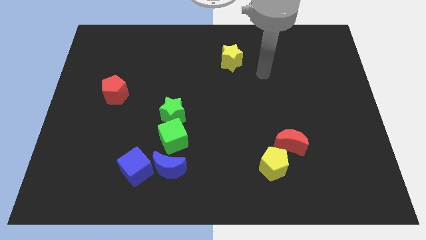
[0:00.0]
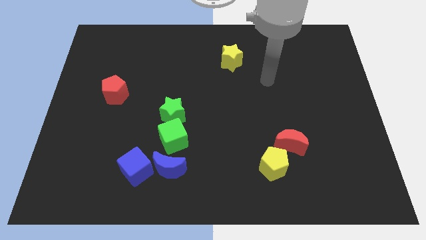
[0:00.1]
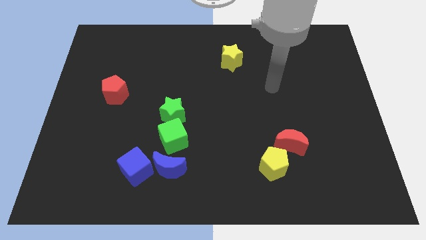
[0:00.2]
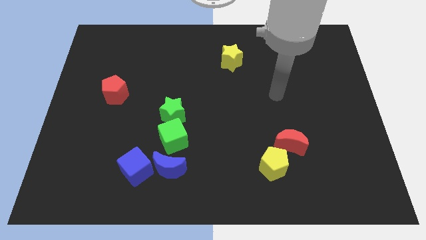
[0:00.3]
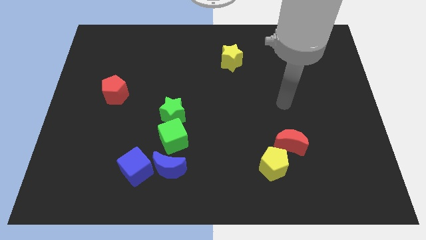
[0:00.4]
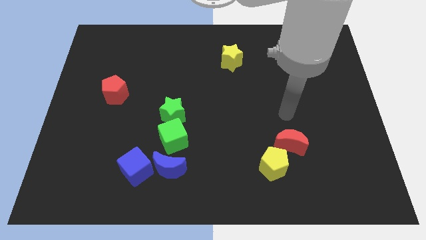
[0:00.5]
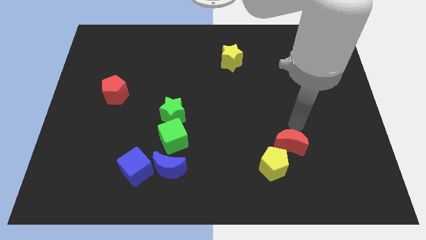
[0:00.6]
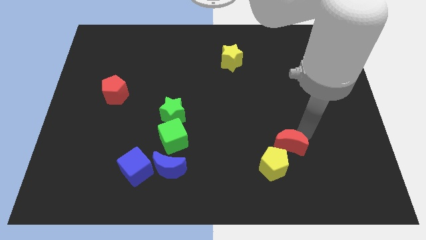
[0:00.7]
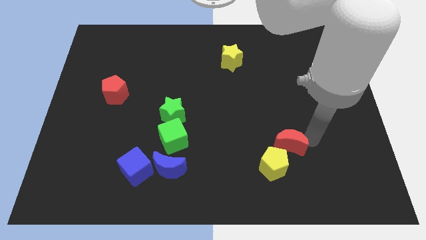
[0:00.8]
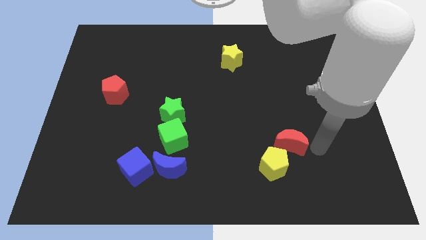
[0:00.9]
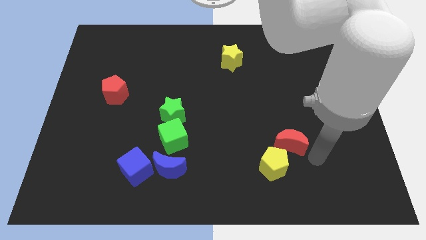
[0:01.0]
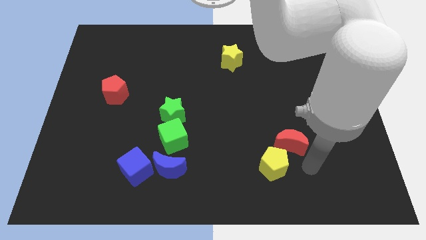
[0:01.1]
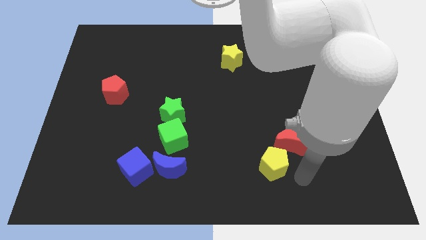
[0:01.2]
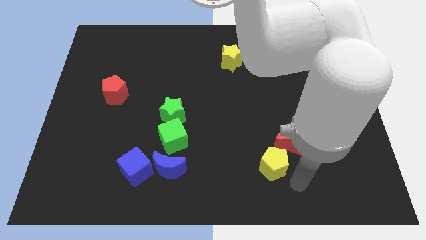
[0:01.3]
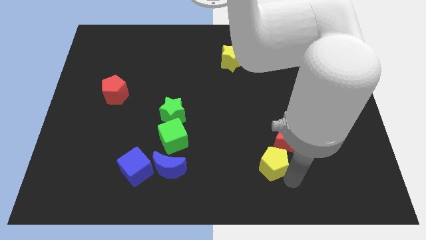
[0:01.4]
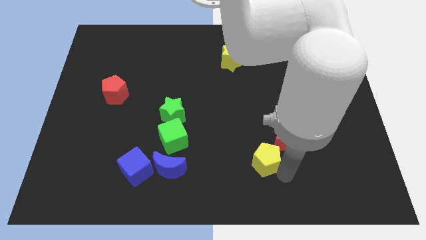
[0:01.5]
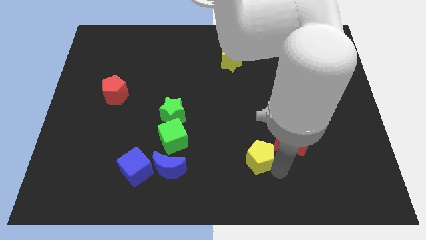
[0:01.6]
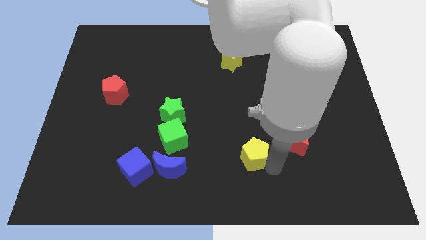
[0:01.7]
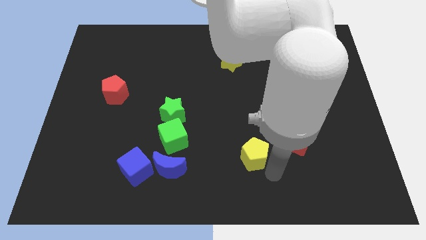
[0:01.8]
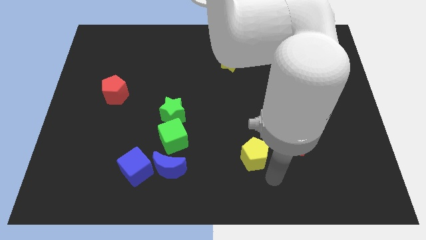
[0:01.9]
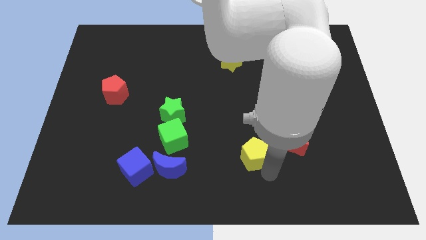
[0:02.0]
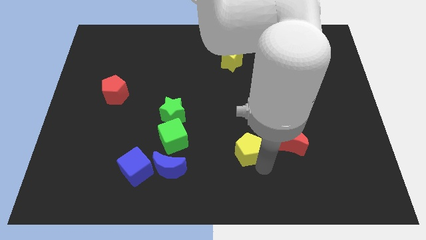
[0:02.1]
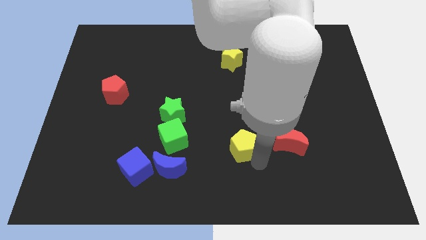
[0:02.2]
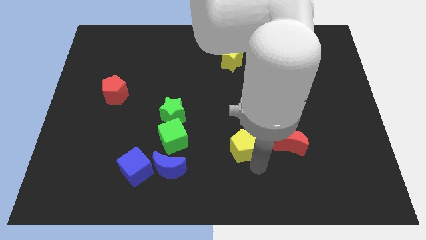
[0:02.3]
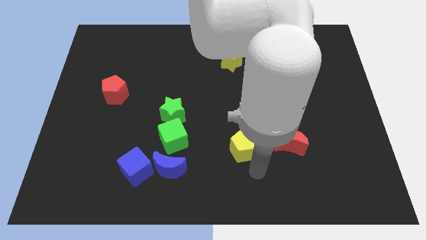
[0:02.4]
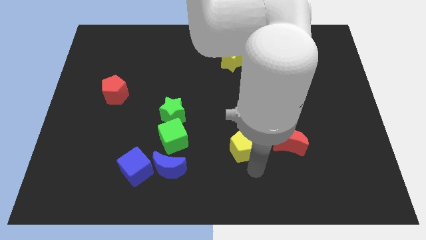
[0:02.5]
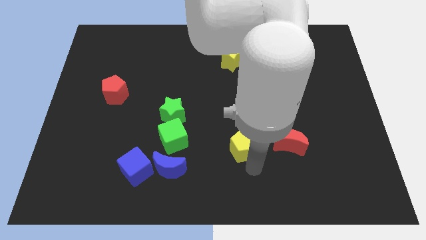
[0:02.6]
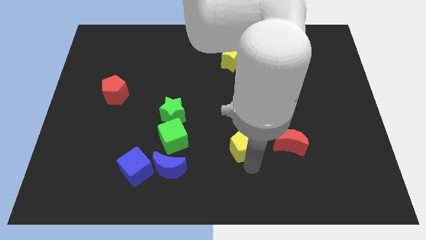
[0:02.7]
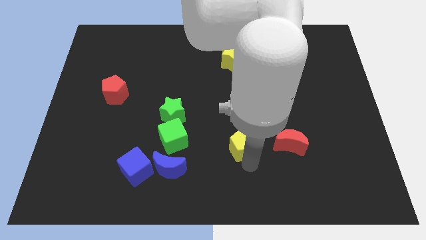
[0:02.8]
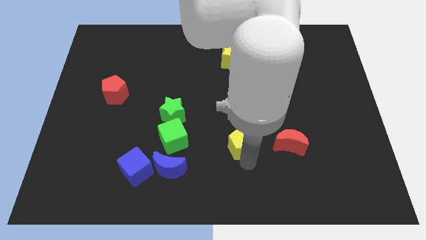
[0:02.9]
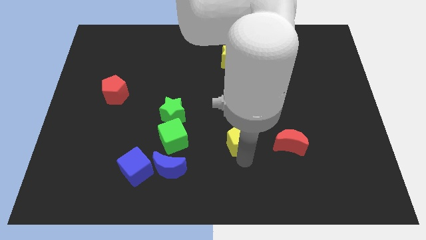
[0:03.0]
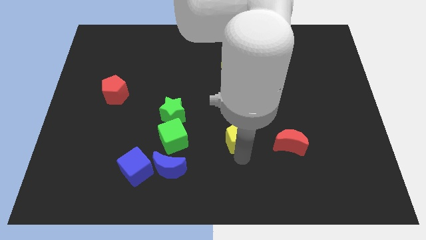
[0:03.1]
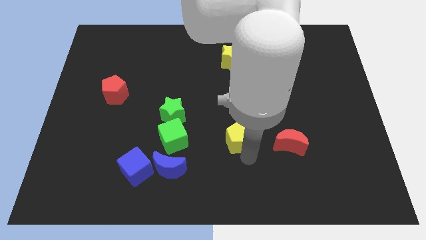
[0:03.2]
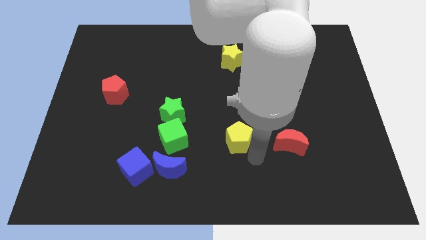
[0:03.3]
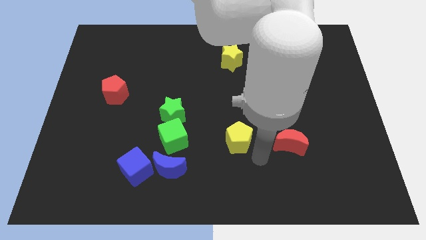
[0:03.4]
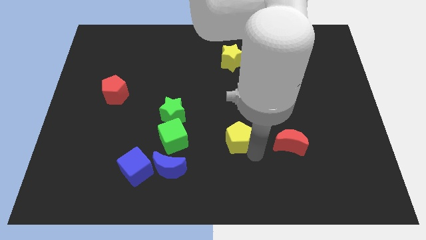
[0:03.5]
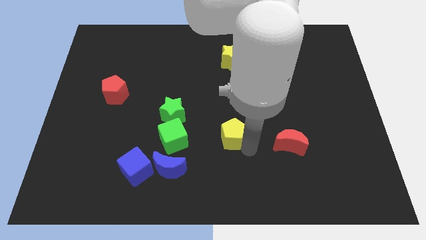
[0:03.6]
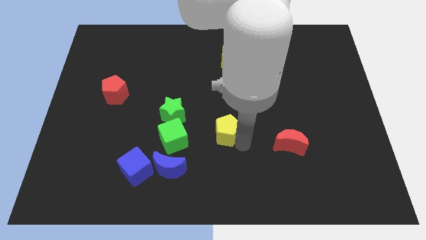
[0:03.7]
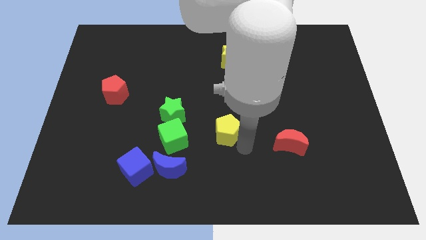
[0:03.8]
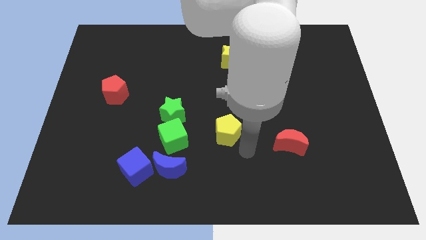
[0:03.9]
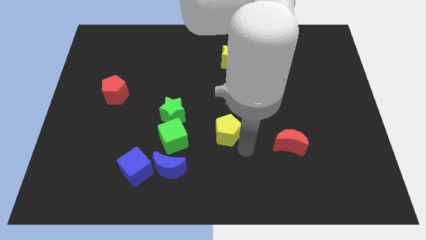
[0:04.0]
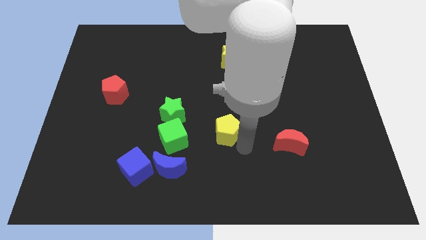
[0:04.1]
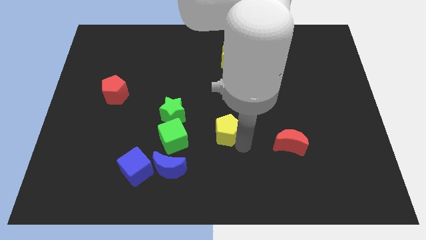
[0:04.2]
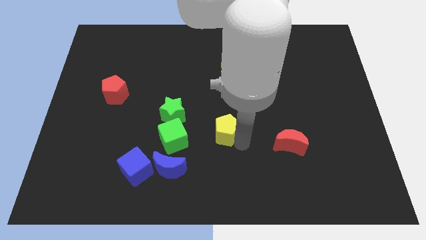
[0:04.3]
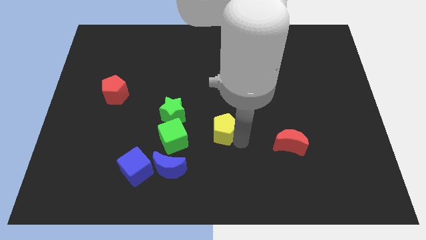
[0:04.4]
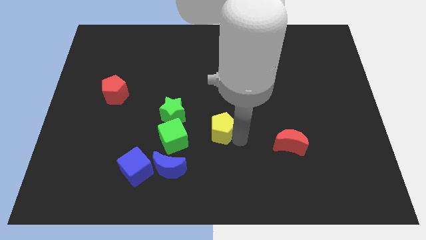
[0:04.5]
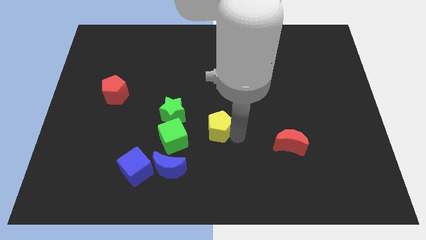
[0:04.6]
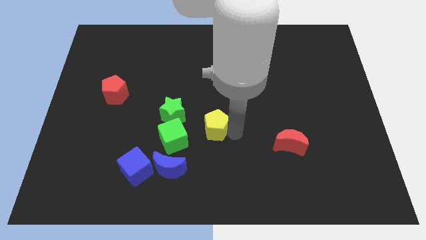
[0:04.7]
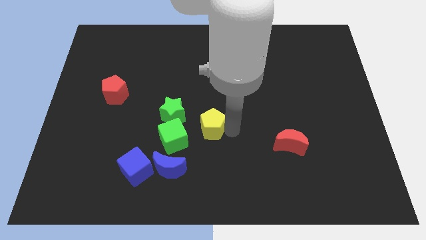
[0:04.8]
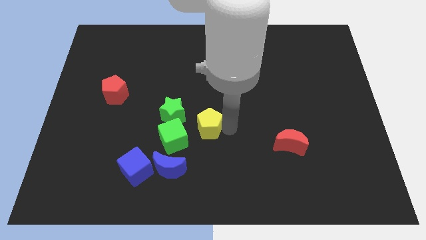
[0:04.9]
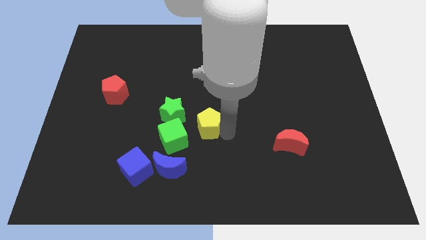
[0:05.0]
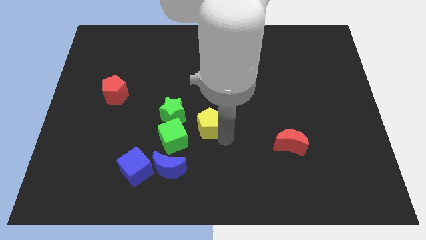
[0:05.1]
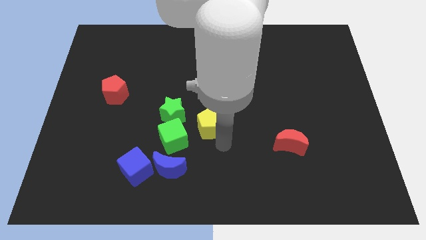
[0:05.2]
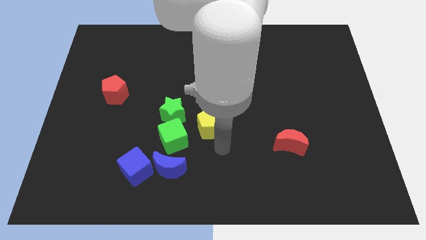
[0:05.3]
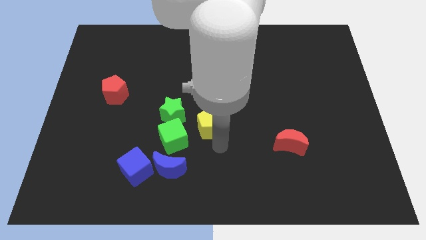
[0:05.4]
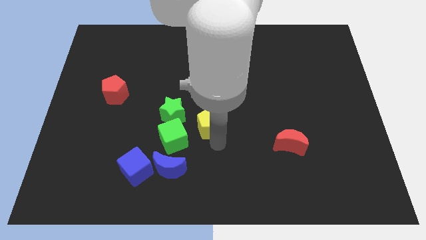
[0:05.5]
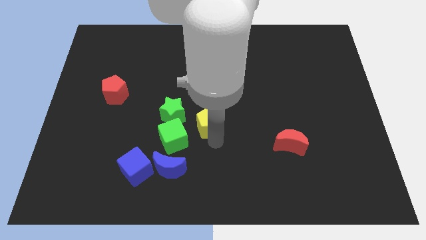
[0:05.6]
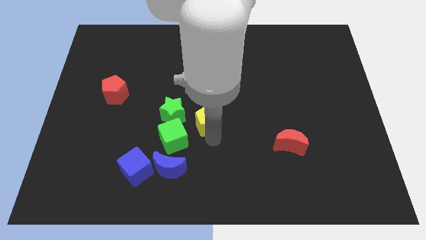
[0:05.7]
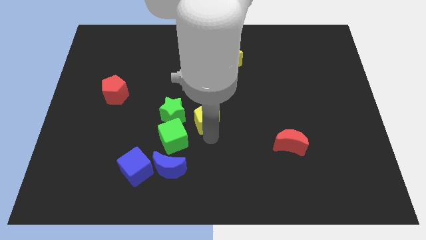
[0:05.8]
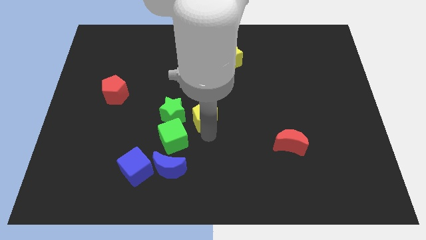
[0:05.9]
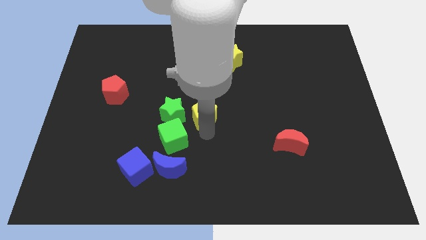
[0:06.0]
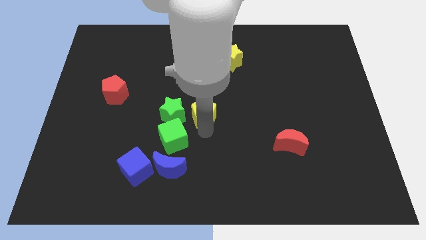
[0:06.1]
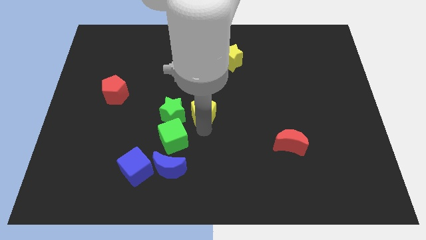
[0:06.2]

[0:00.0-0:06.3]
push the yellow pentagon upwards and to the left diagonally

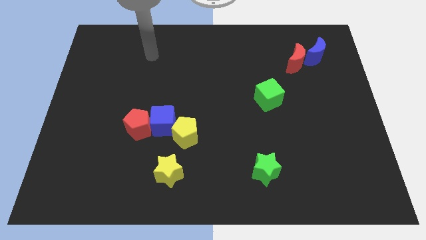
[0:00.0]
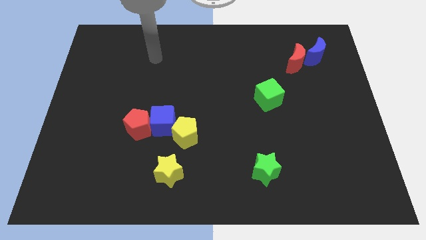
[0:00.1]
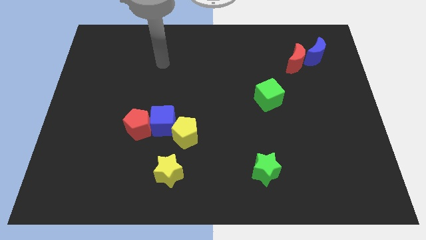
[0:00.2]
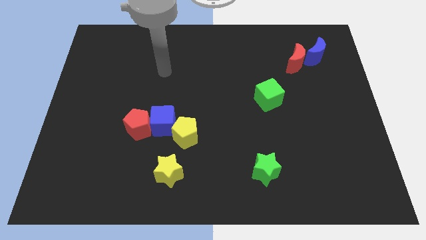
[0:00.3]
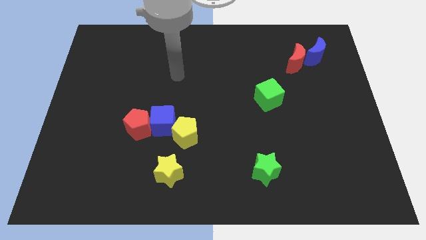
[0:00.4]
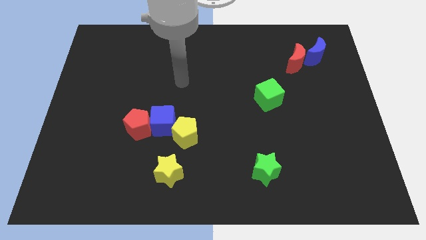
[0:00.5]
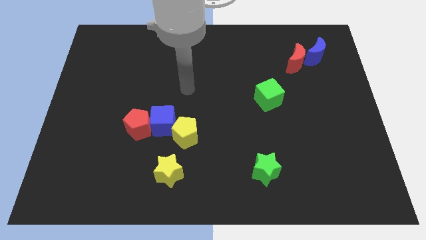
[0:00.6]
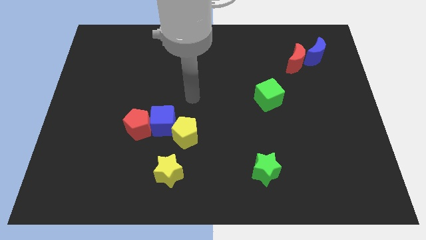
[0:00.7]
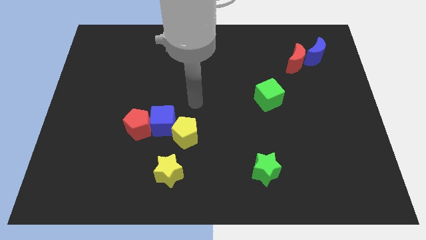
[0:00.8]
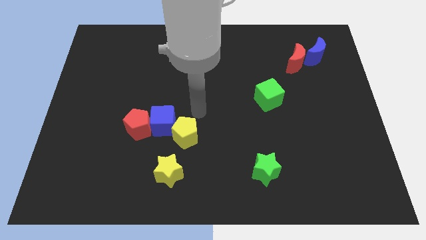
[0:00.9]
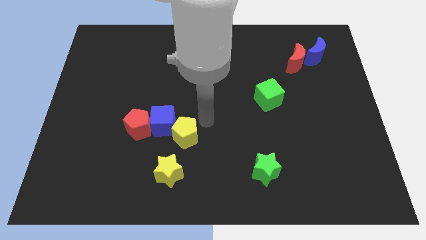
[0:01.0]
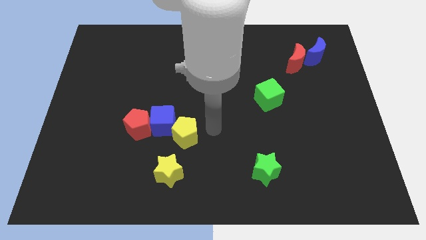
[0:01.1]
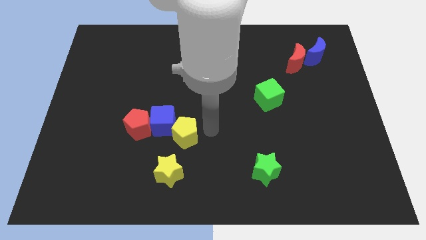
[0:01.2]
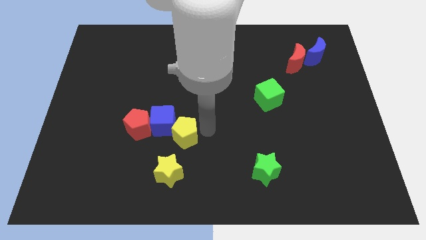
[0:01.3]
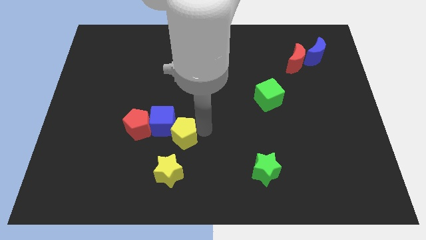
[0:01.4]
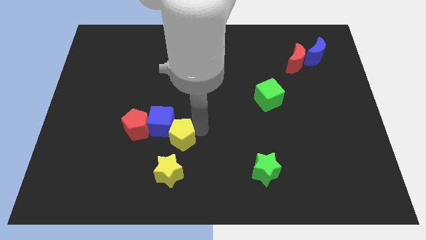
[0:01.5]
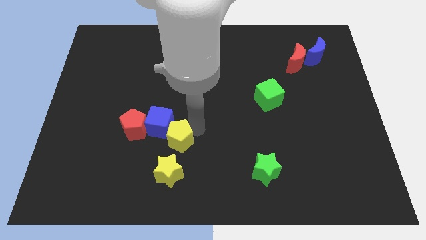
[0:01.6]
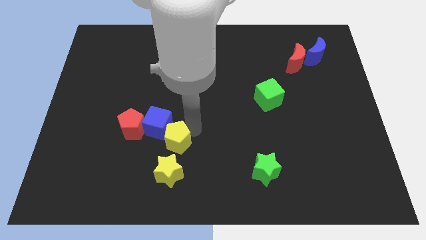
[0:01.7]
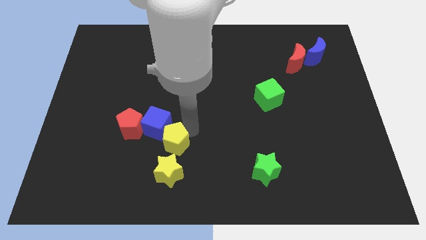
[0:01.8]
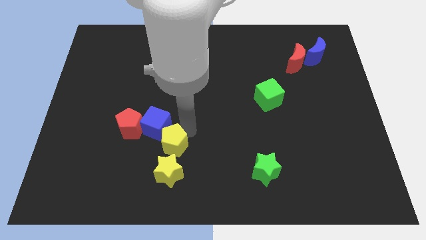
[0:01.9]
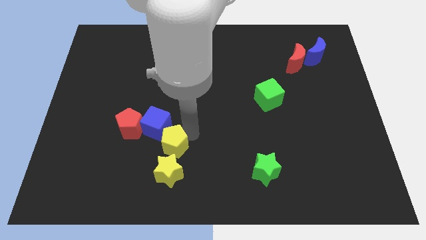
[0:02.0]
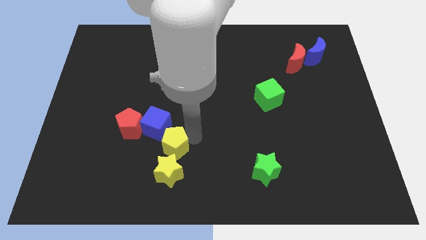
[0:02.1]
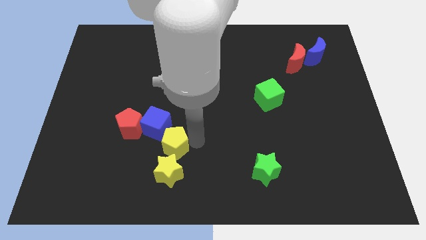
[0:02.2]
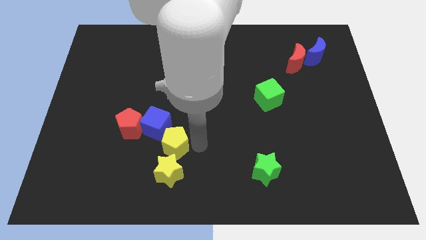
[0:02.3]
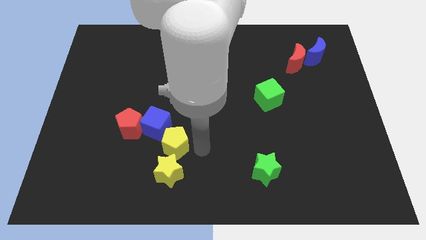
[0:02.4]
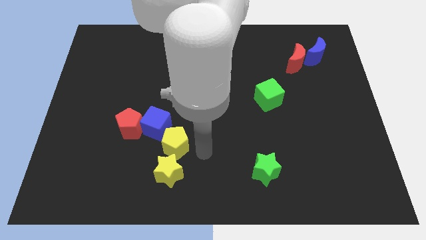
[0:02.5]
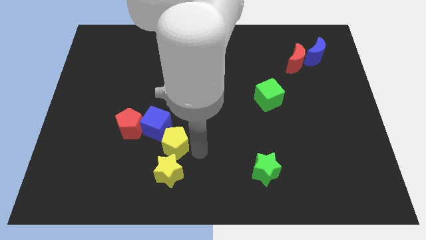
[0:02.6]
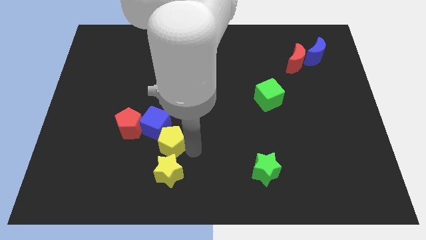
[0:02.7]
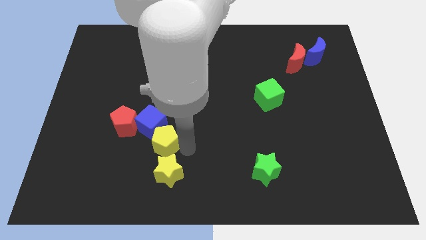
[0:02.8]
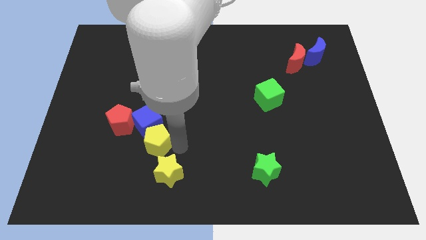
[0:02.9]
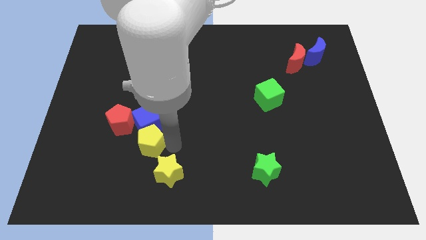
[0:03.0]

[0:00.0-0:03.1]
slightly slide the yellow pentagon left
